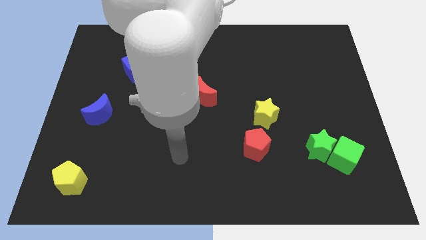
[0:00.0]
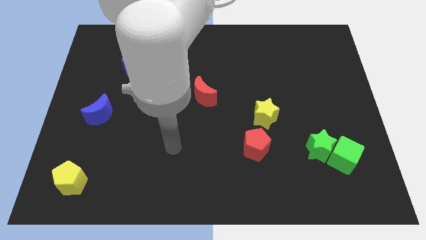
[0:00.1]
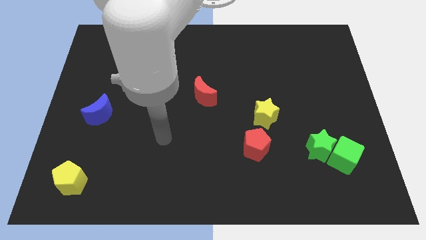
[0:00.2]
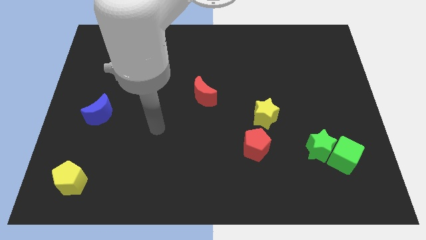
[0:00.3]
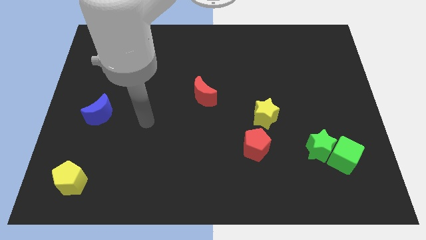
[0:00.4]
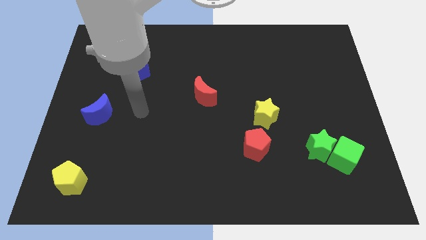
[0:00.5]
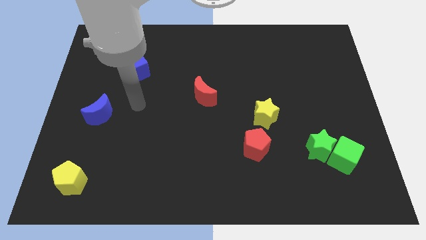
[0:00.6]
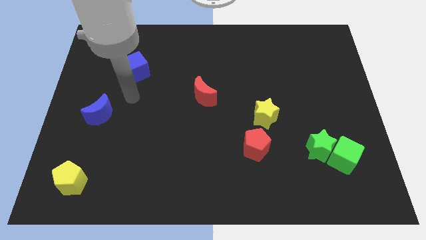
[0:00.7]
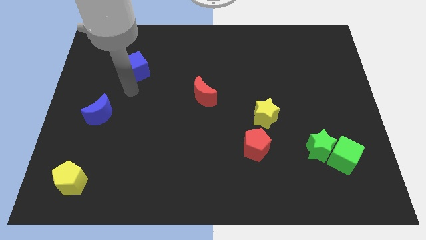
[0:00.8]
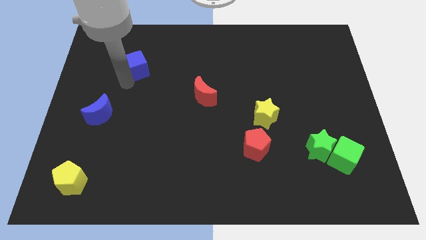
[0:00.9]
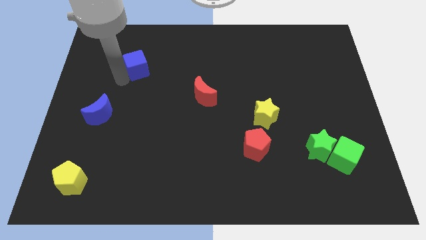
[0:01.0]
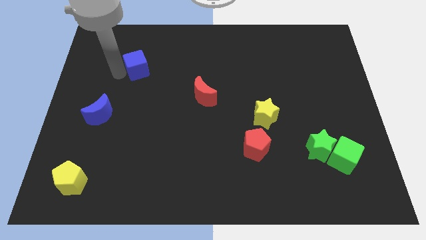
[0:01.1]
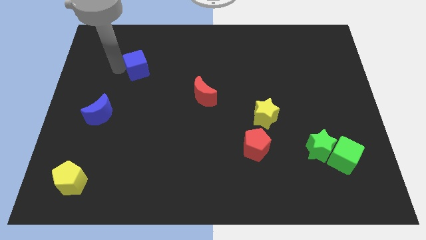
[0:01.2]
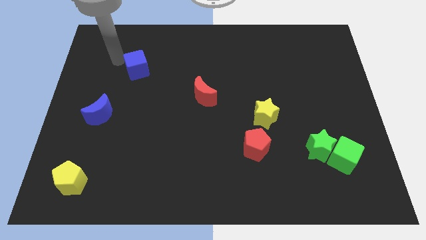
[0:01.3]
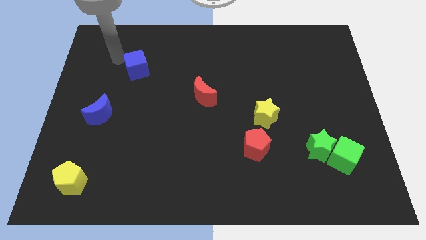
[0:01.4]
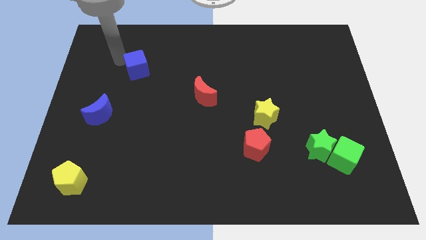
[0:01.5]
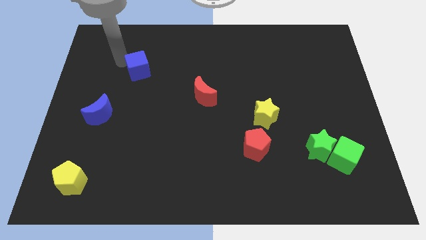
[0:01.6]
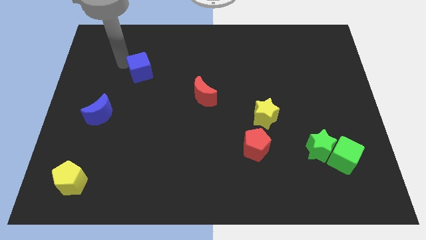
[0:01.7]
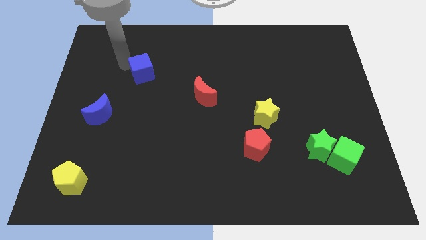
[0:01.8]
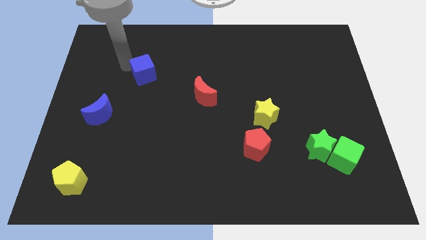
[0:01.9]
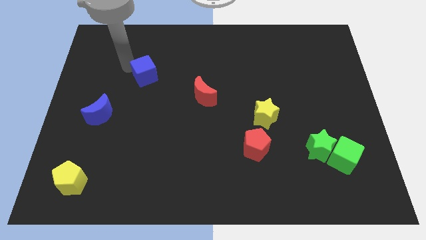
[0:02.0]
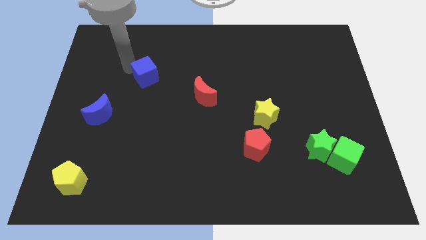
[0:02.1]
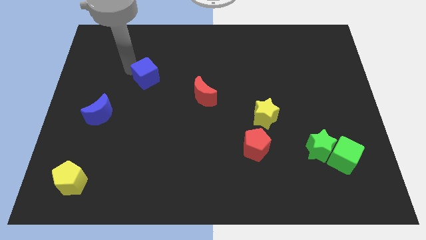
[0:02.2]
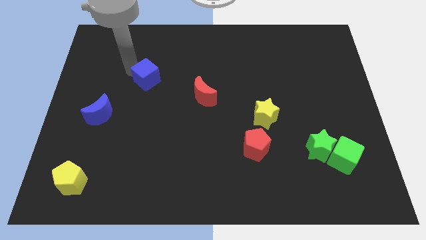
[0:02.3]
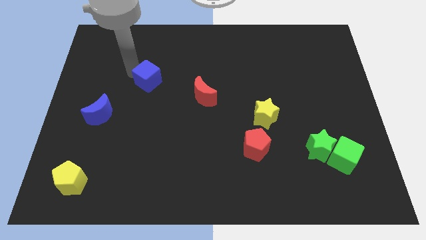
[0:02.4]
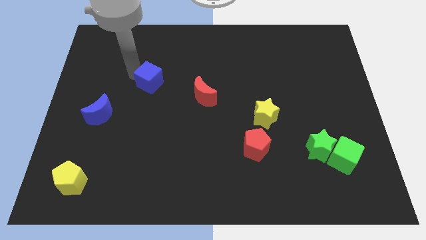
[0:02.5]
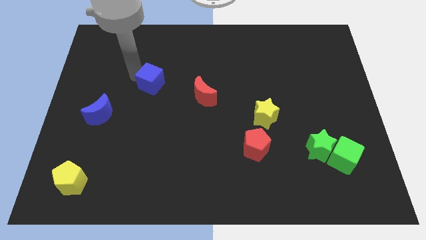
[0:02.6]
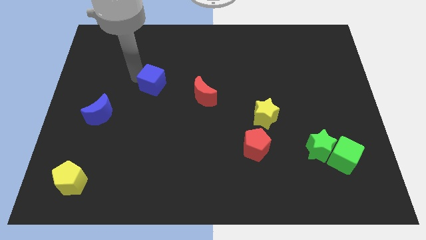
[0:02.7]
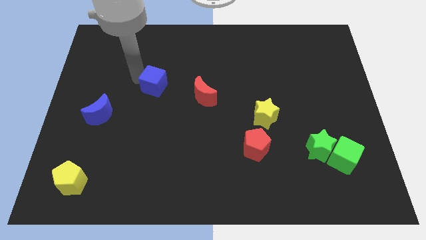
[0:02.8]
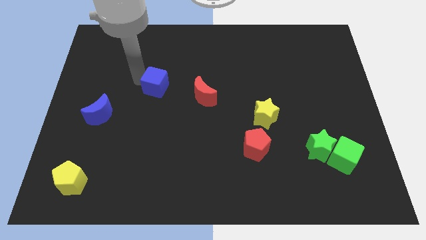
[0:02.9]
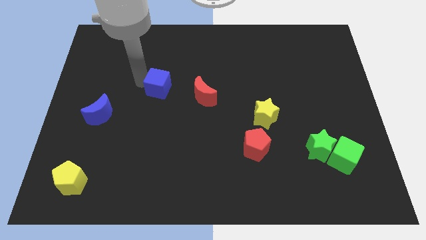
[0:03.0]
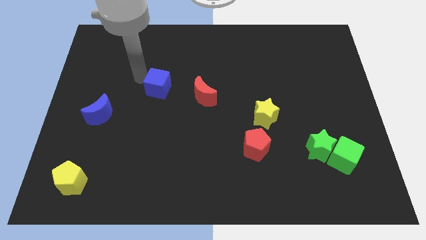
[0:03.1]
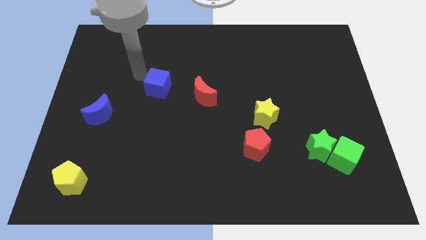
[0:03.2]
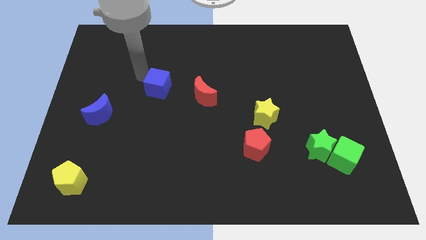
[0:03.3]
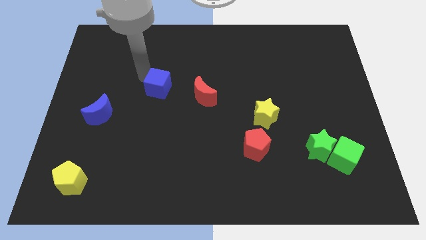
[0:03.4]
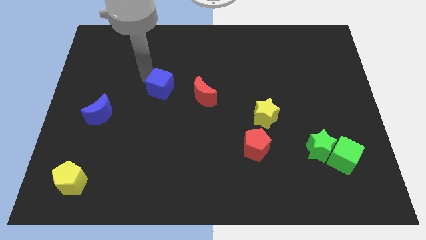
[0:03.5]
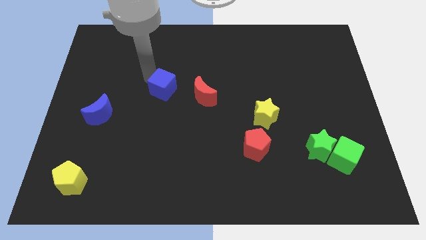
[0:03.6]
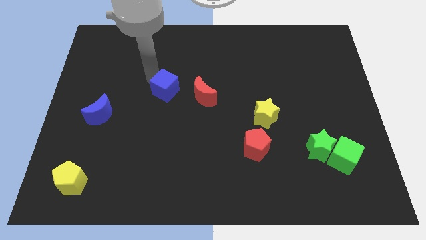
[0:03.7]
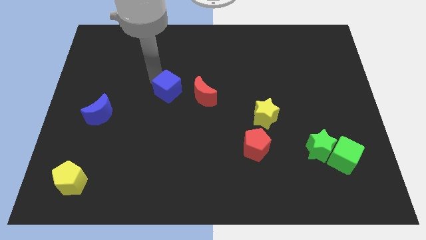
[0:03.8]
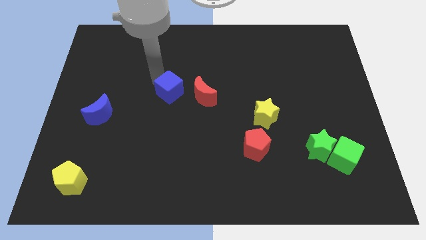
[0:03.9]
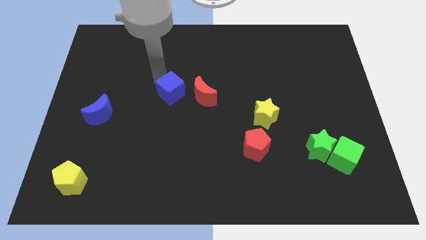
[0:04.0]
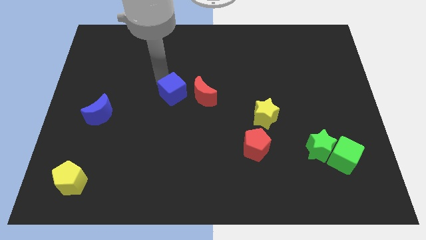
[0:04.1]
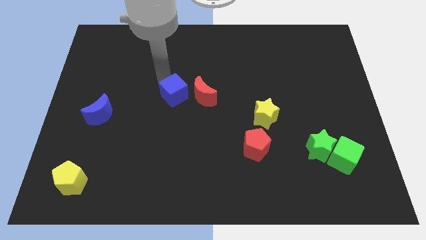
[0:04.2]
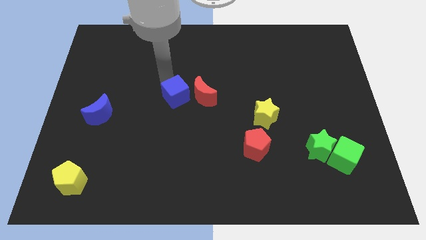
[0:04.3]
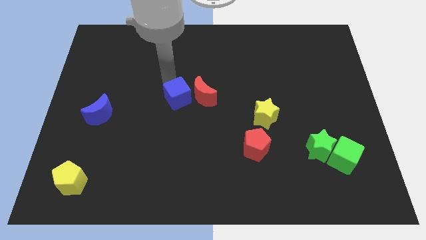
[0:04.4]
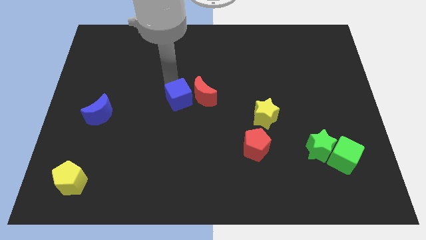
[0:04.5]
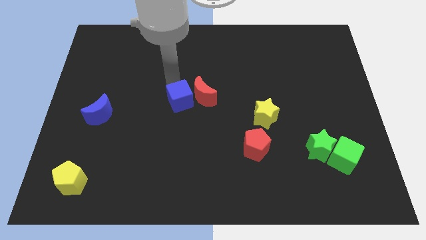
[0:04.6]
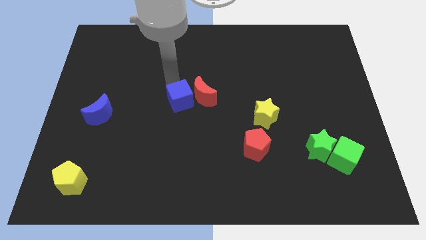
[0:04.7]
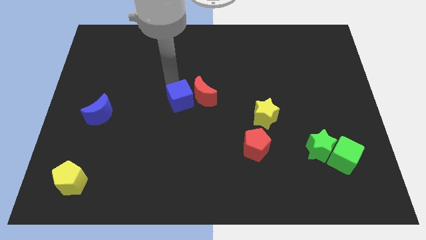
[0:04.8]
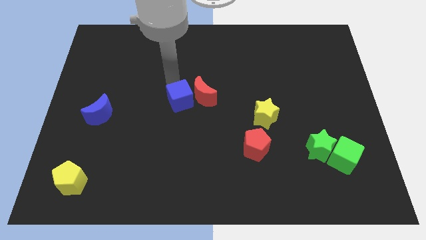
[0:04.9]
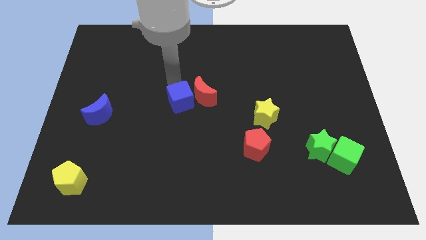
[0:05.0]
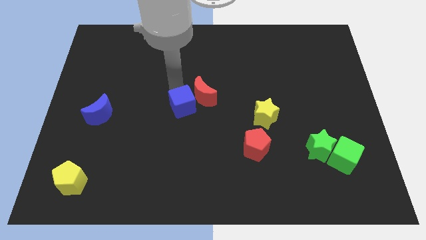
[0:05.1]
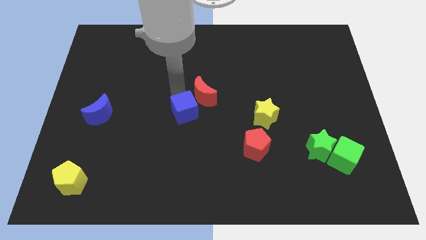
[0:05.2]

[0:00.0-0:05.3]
move the blue cube below the red moon

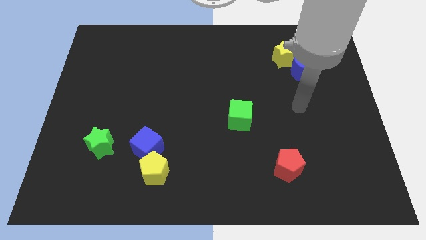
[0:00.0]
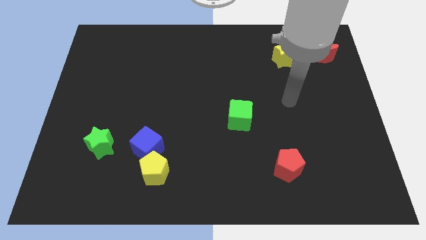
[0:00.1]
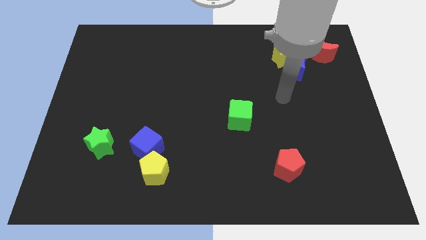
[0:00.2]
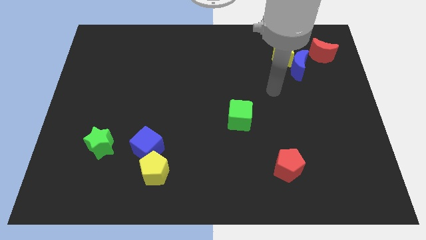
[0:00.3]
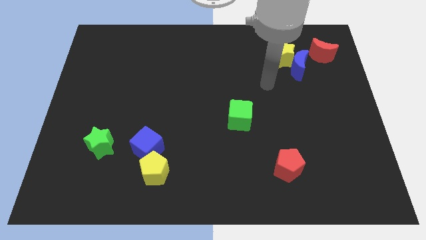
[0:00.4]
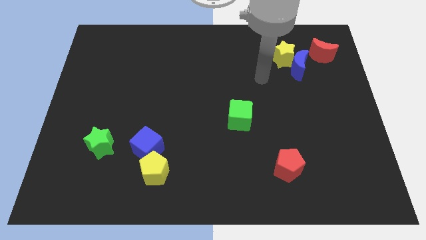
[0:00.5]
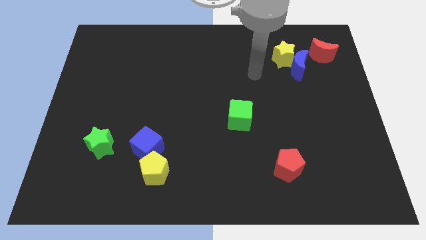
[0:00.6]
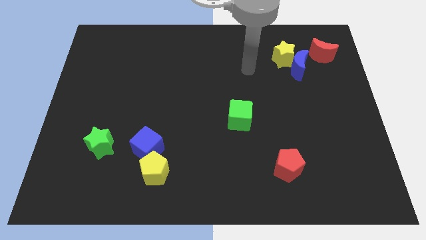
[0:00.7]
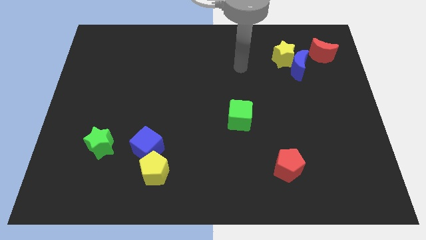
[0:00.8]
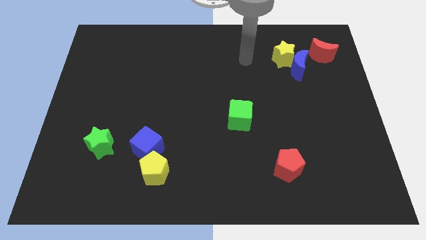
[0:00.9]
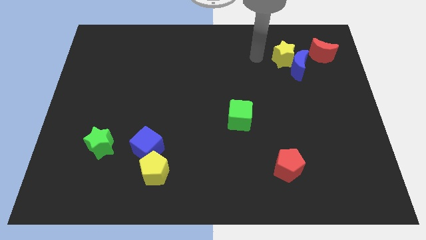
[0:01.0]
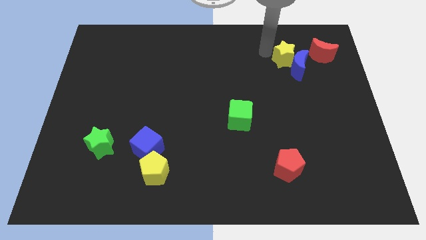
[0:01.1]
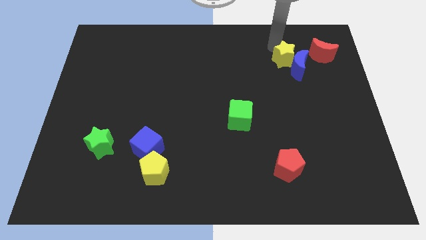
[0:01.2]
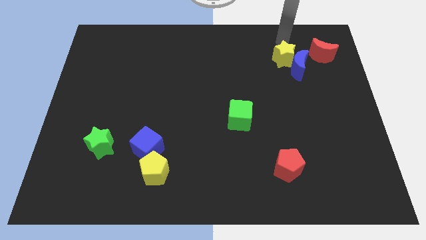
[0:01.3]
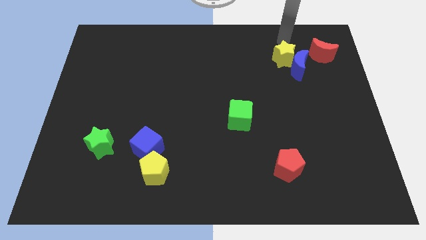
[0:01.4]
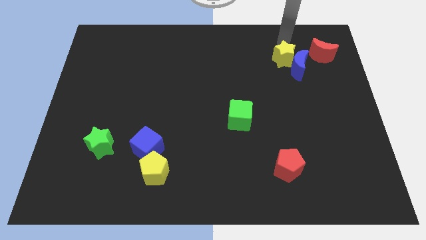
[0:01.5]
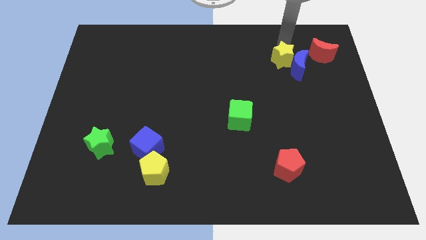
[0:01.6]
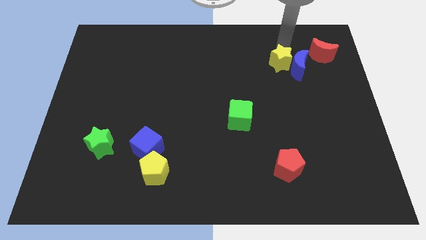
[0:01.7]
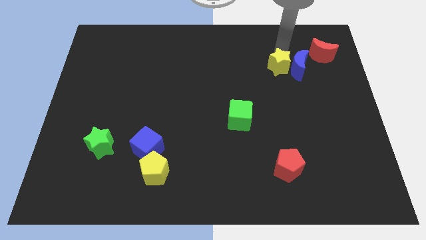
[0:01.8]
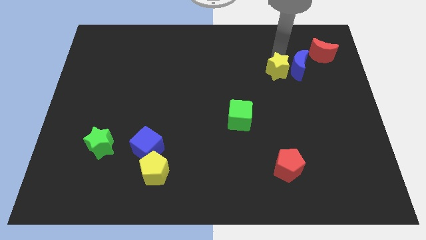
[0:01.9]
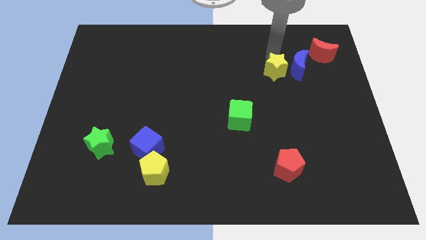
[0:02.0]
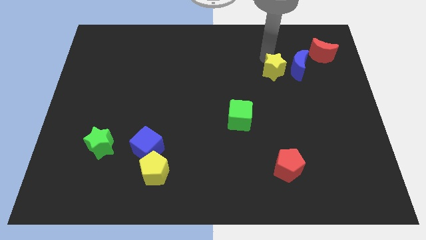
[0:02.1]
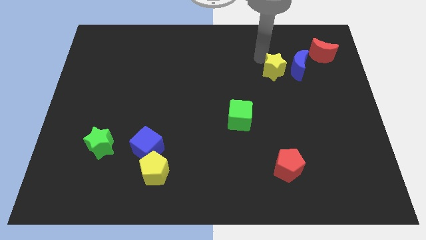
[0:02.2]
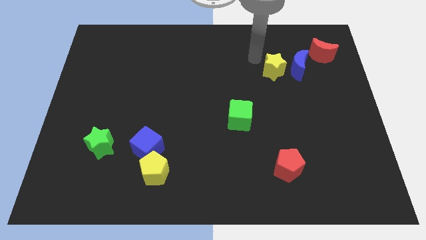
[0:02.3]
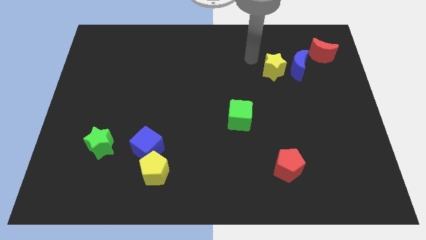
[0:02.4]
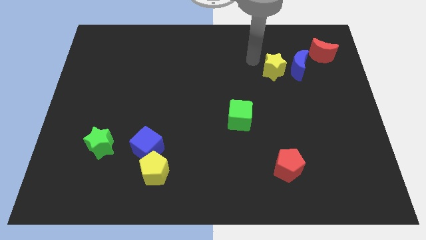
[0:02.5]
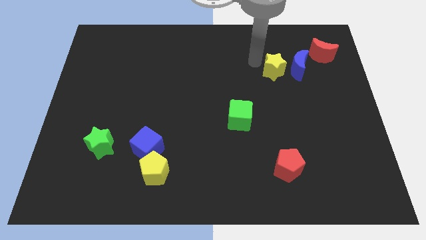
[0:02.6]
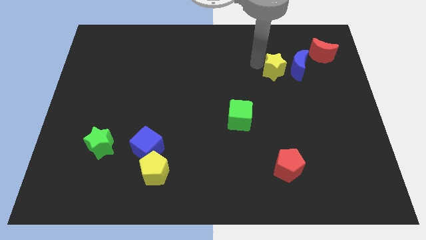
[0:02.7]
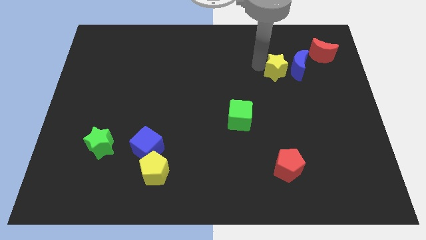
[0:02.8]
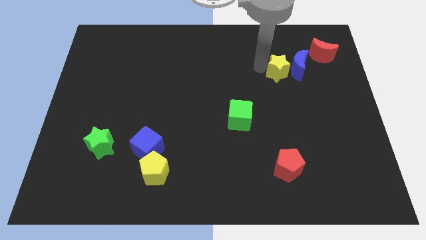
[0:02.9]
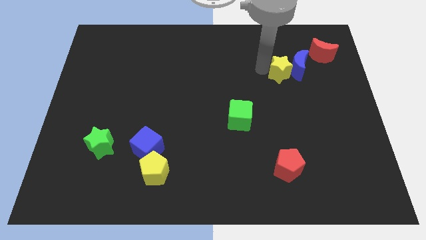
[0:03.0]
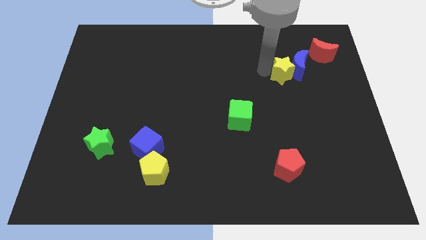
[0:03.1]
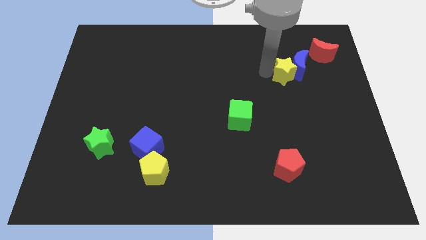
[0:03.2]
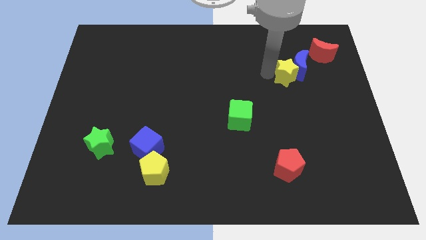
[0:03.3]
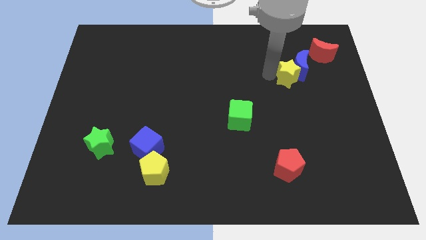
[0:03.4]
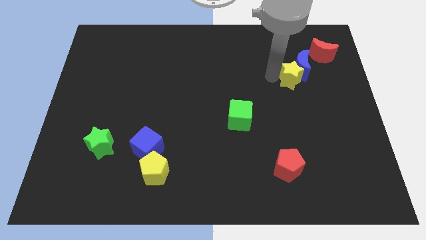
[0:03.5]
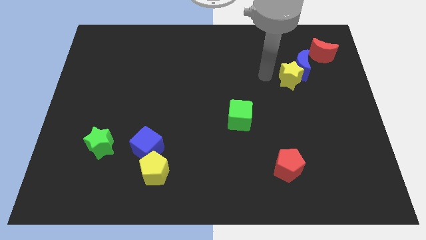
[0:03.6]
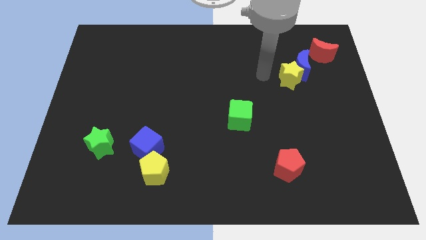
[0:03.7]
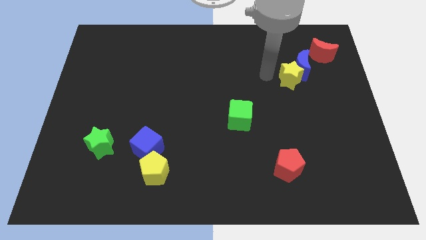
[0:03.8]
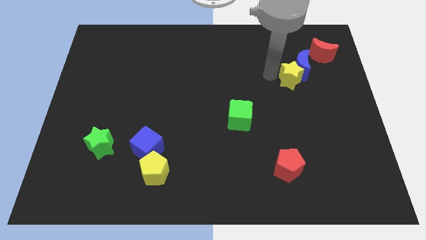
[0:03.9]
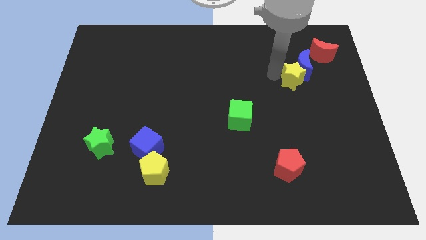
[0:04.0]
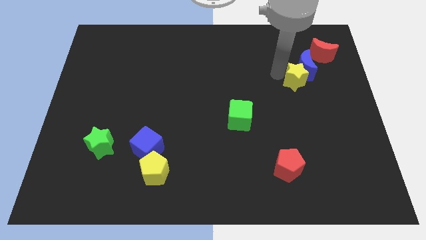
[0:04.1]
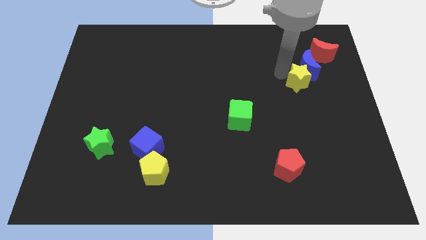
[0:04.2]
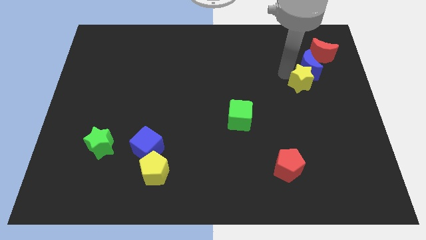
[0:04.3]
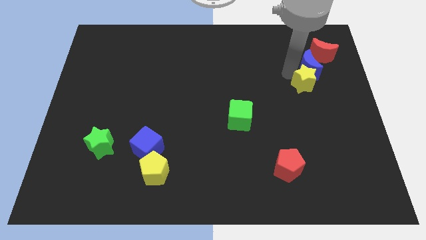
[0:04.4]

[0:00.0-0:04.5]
slide the yellow star to the bottom right side of the blue moon
